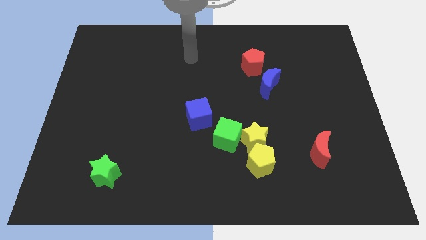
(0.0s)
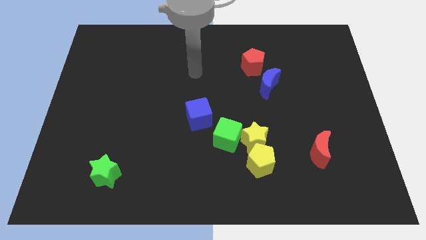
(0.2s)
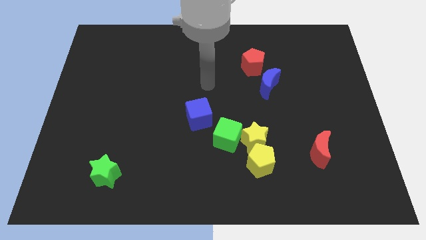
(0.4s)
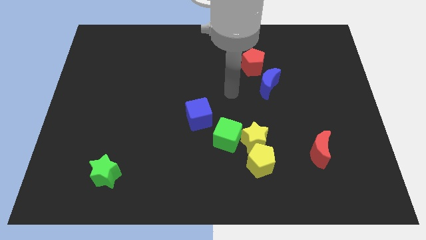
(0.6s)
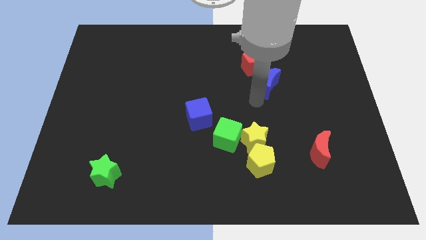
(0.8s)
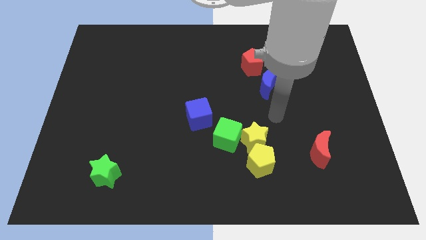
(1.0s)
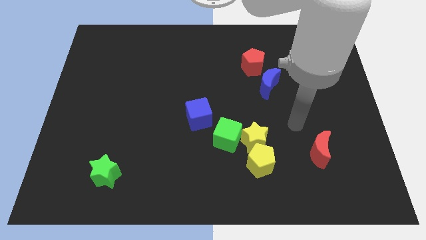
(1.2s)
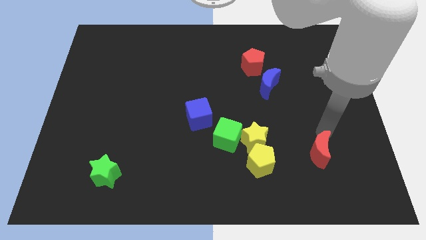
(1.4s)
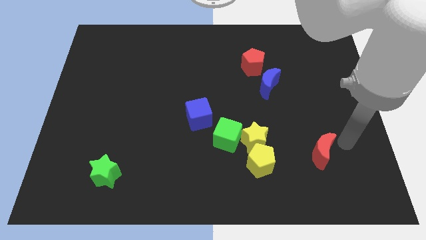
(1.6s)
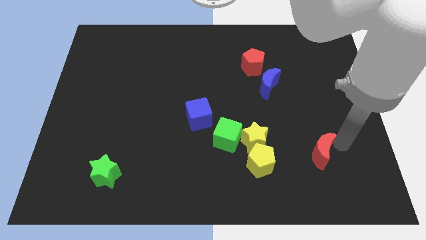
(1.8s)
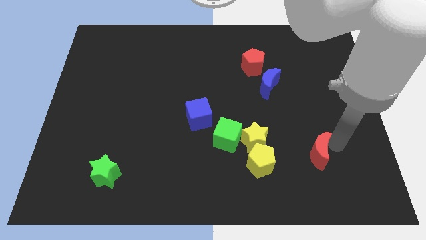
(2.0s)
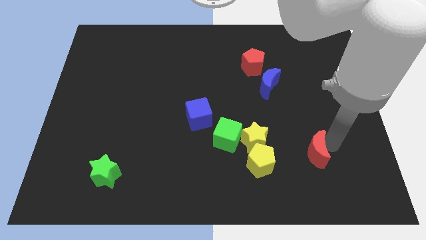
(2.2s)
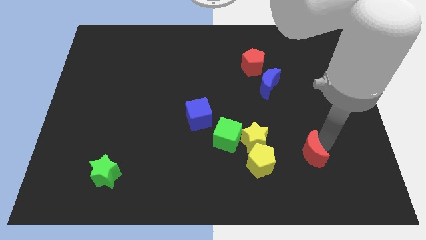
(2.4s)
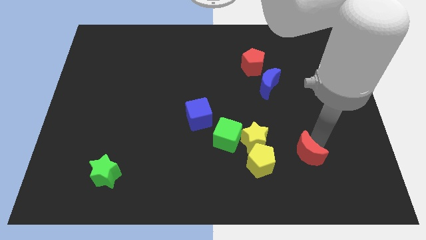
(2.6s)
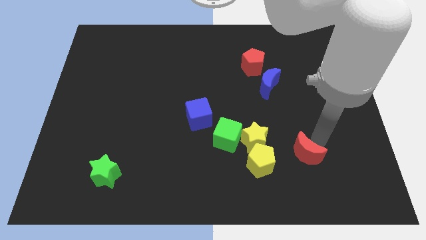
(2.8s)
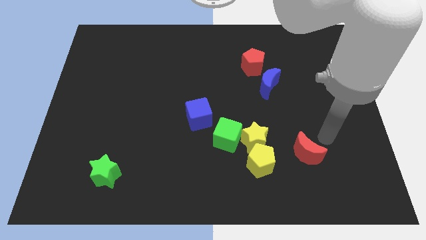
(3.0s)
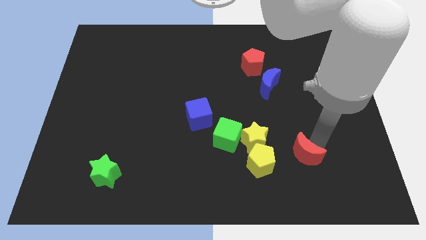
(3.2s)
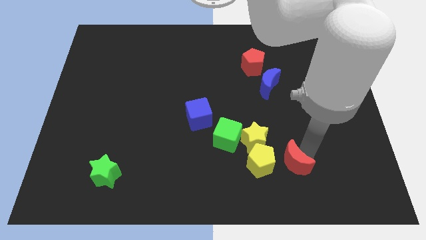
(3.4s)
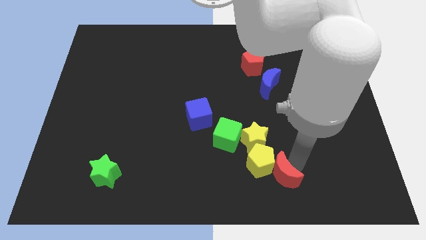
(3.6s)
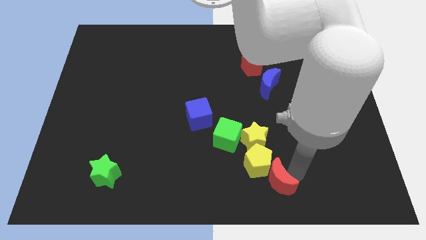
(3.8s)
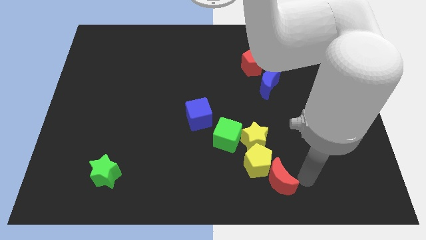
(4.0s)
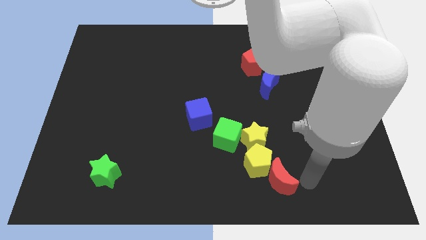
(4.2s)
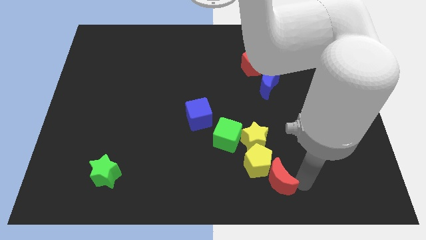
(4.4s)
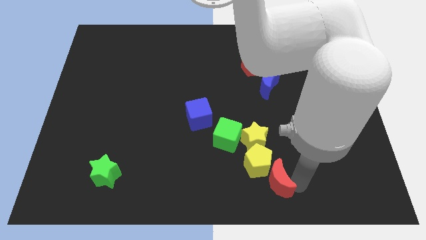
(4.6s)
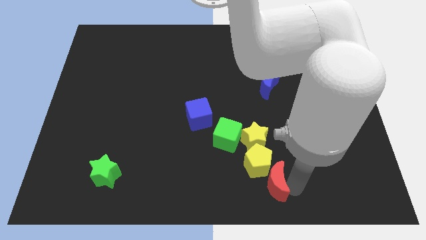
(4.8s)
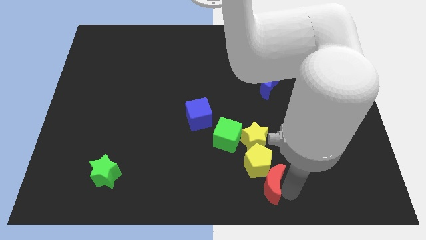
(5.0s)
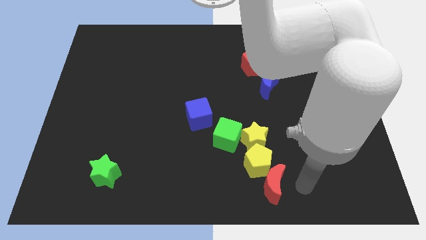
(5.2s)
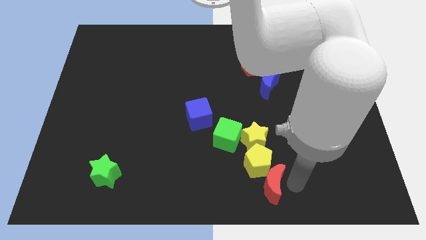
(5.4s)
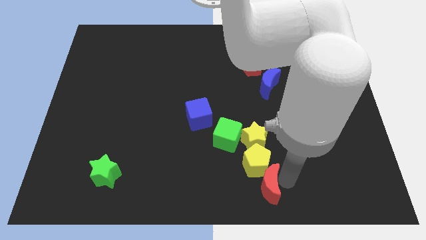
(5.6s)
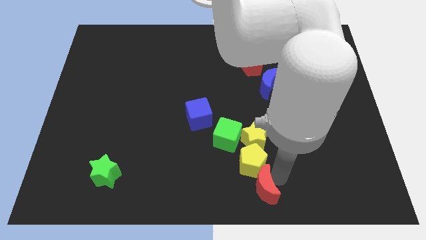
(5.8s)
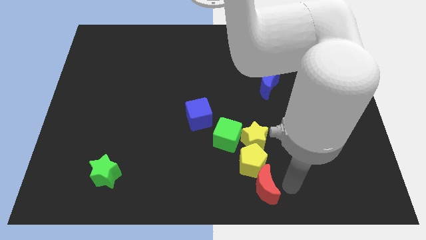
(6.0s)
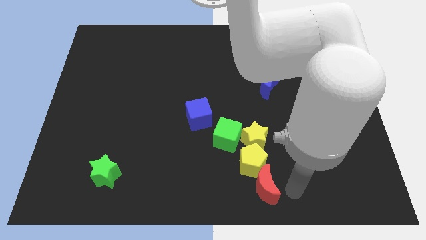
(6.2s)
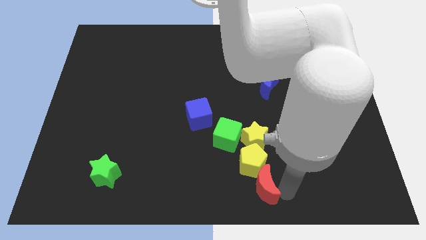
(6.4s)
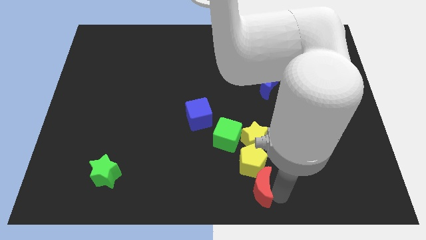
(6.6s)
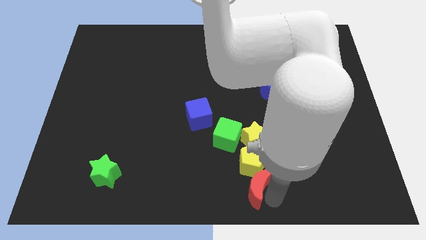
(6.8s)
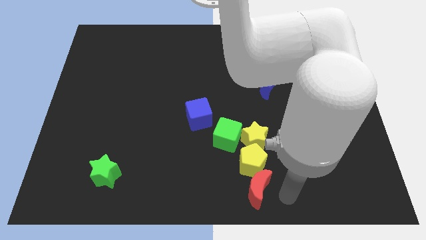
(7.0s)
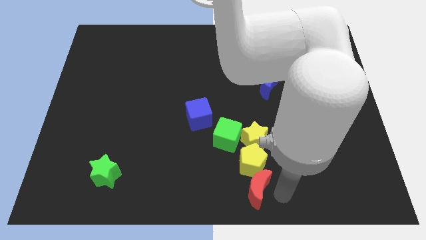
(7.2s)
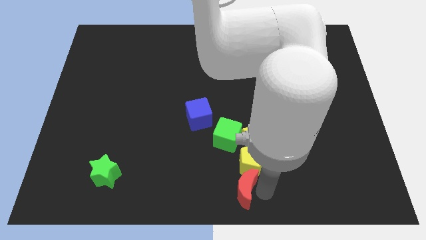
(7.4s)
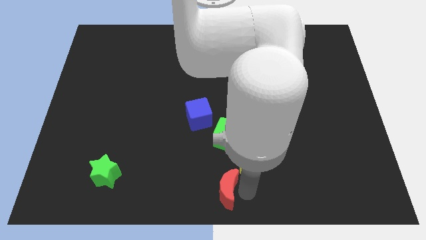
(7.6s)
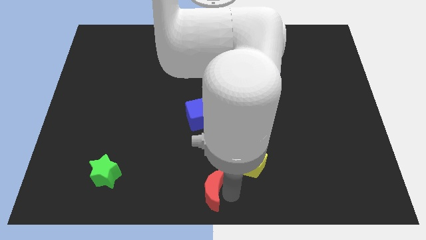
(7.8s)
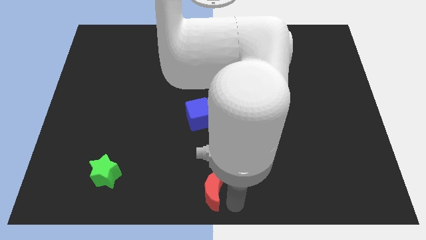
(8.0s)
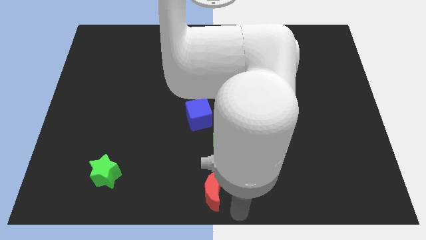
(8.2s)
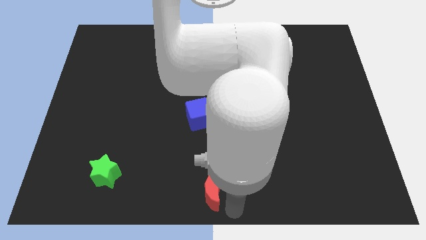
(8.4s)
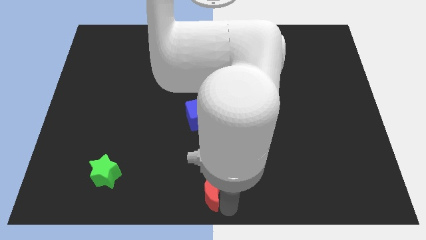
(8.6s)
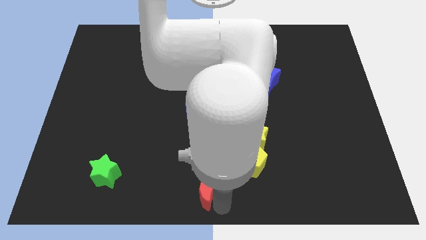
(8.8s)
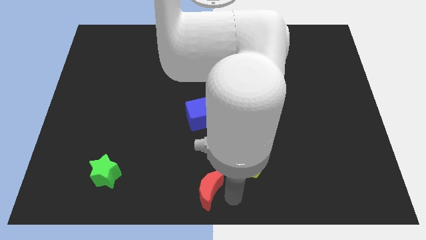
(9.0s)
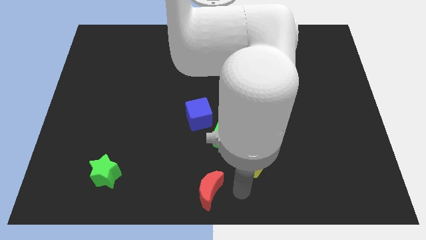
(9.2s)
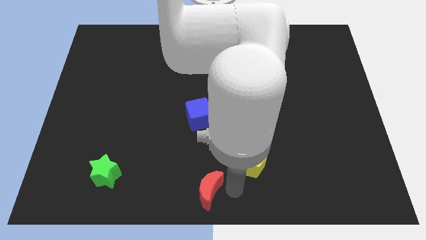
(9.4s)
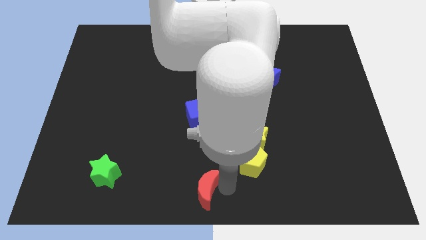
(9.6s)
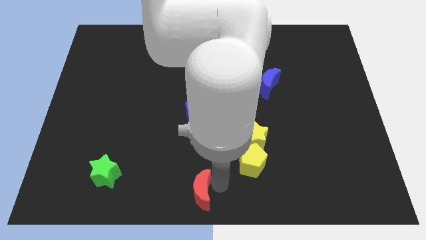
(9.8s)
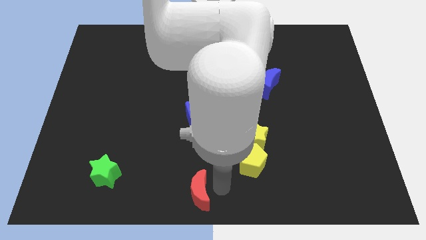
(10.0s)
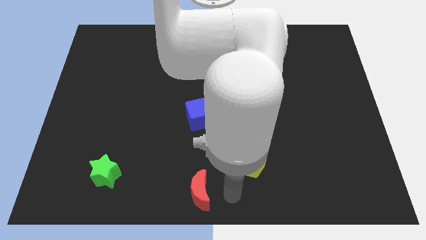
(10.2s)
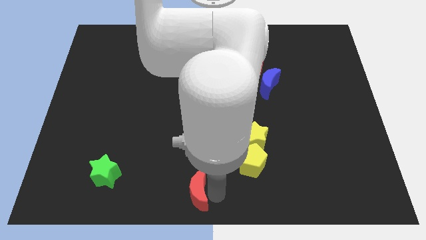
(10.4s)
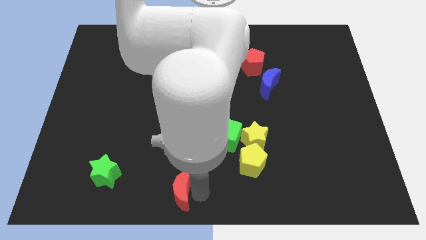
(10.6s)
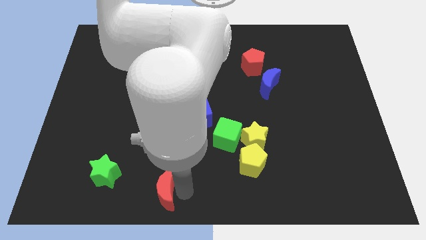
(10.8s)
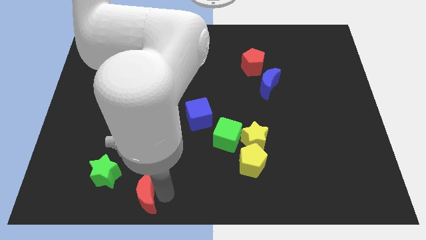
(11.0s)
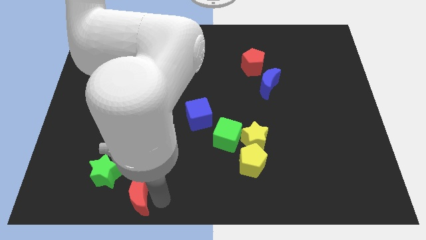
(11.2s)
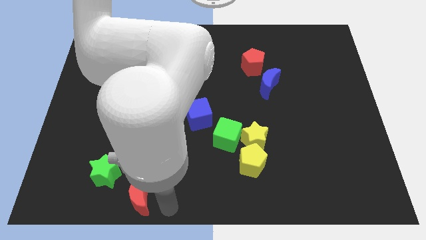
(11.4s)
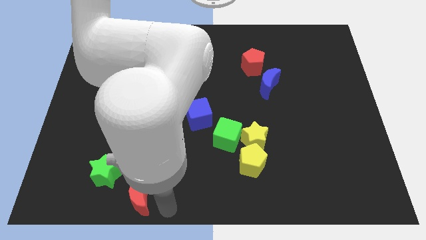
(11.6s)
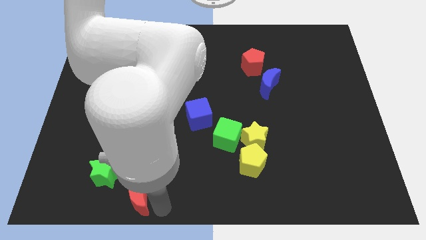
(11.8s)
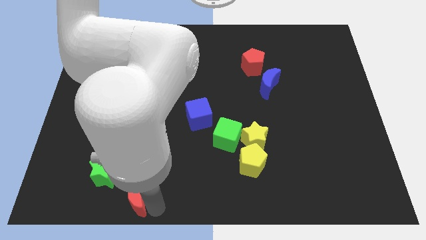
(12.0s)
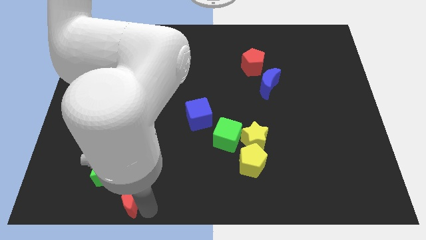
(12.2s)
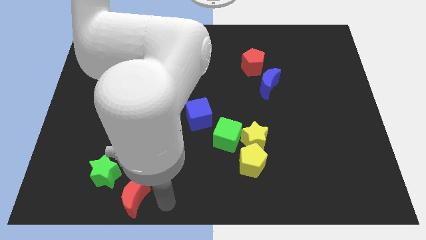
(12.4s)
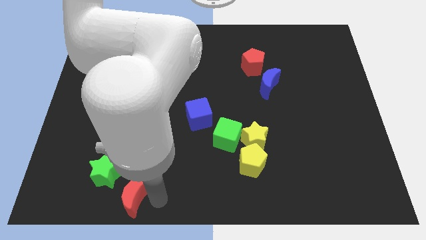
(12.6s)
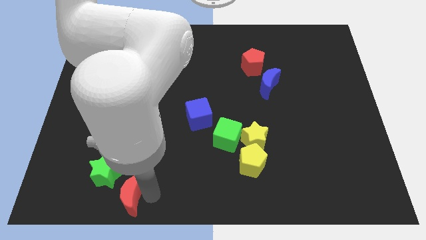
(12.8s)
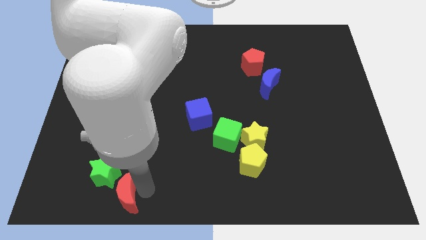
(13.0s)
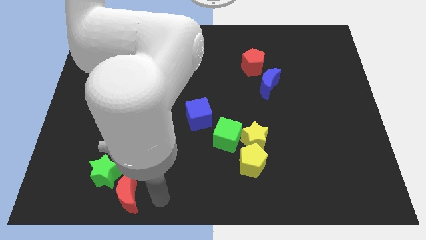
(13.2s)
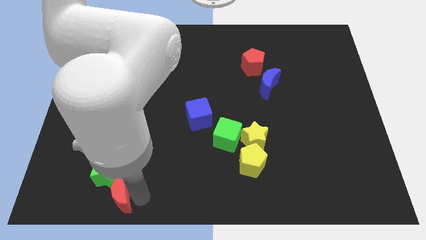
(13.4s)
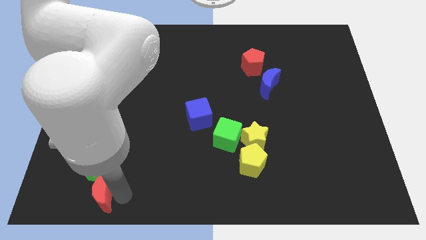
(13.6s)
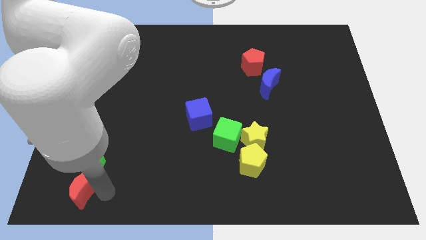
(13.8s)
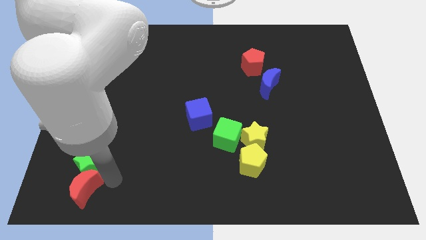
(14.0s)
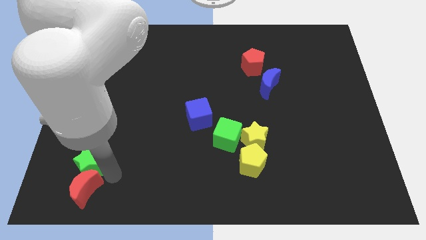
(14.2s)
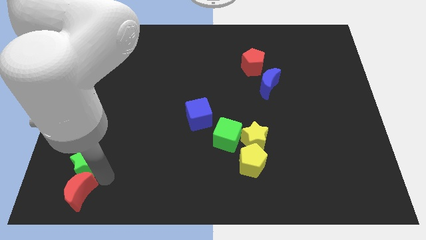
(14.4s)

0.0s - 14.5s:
push the red moon to the bottom left of the board
